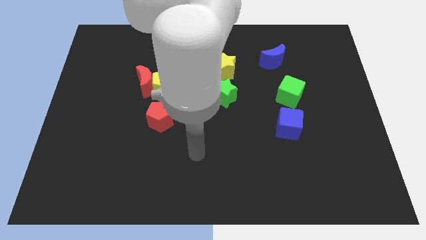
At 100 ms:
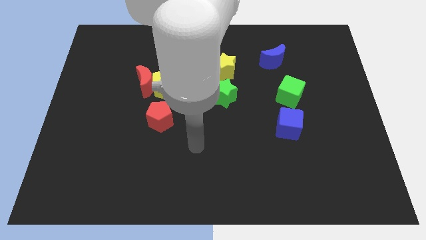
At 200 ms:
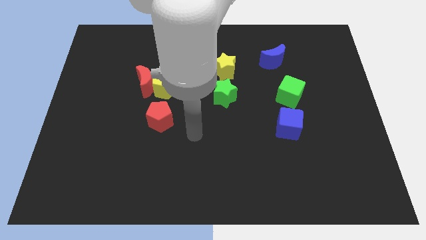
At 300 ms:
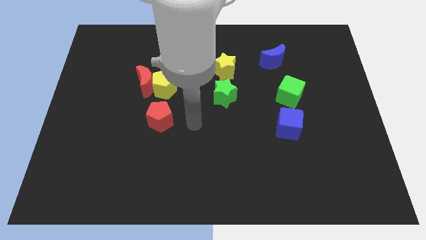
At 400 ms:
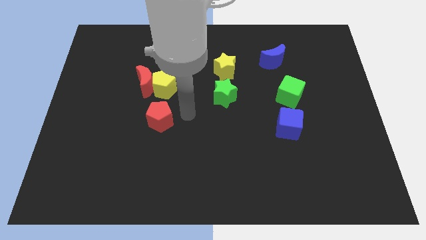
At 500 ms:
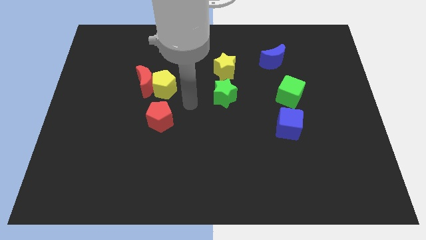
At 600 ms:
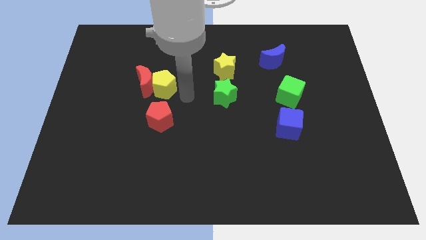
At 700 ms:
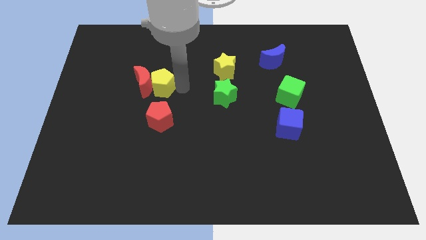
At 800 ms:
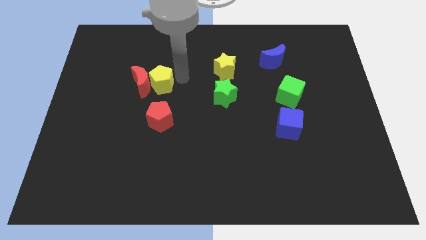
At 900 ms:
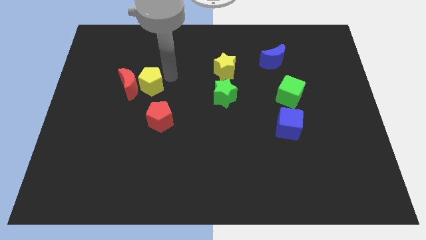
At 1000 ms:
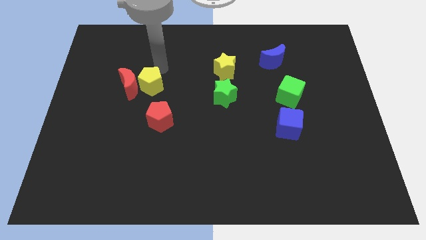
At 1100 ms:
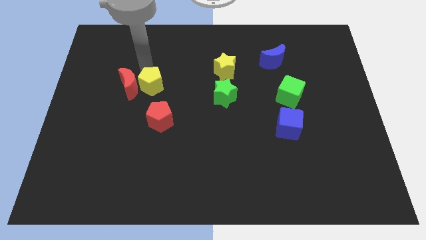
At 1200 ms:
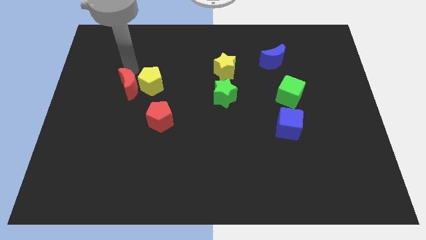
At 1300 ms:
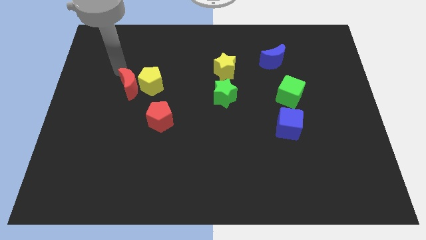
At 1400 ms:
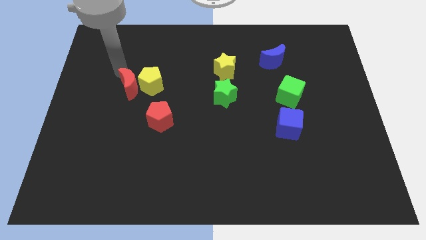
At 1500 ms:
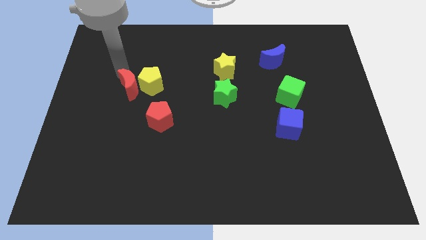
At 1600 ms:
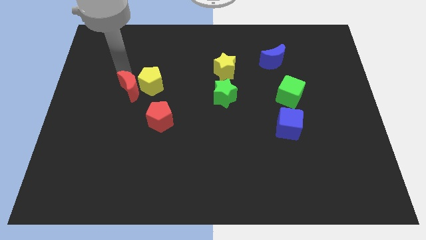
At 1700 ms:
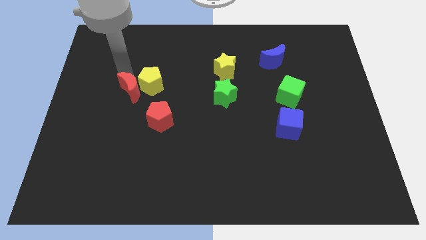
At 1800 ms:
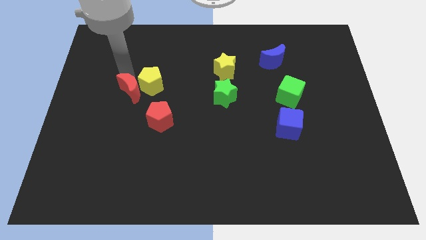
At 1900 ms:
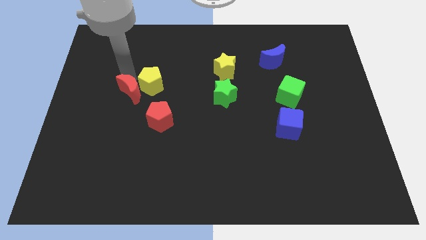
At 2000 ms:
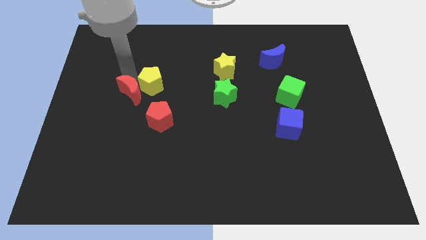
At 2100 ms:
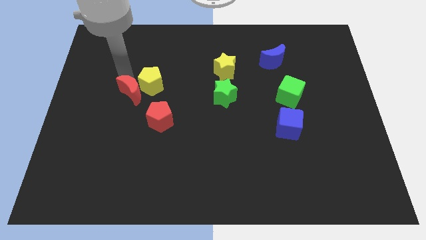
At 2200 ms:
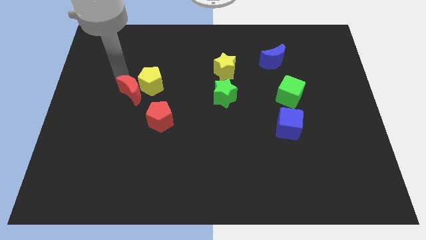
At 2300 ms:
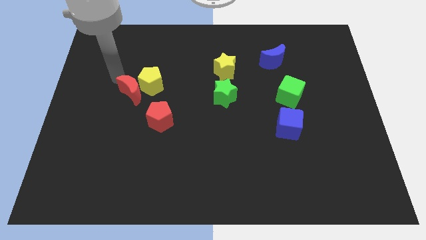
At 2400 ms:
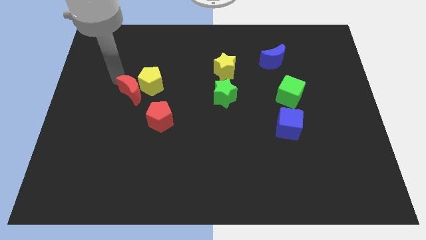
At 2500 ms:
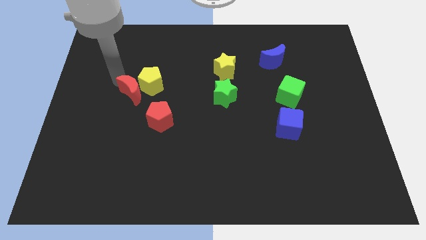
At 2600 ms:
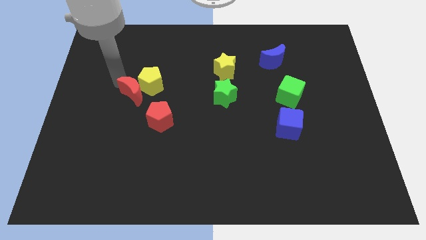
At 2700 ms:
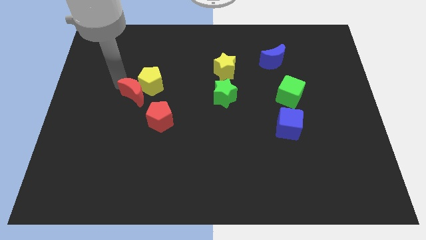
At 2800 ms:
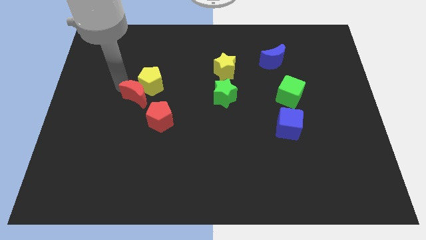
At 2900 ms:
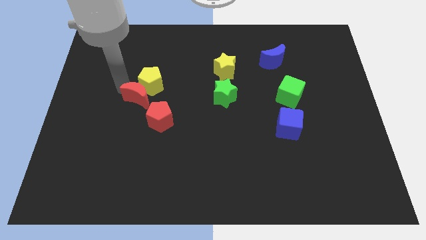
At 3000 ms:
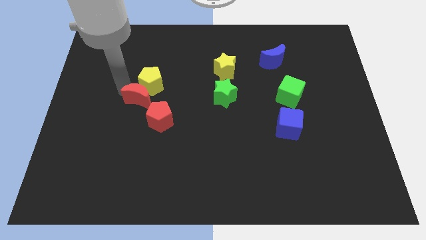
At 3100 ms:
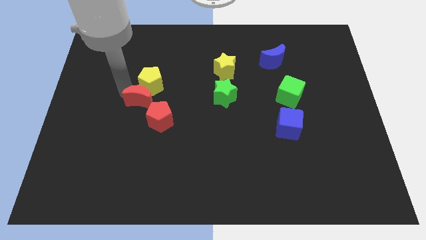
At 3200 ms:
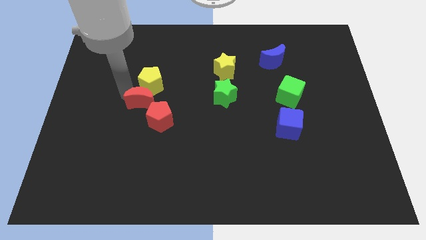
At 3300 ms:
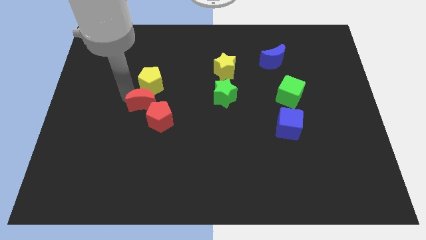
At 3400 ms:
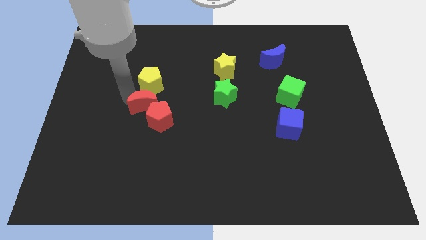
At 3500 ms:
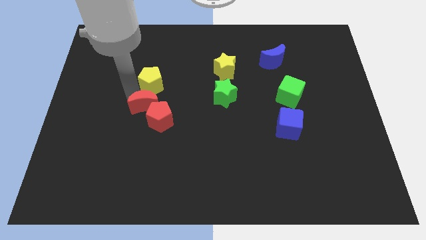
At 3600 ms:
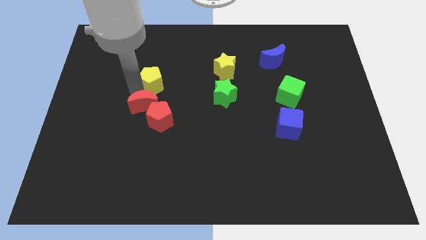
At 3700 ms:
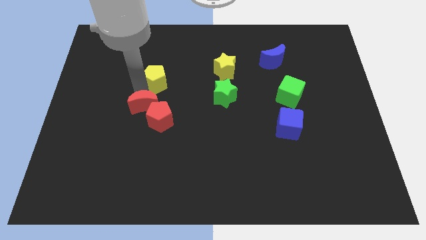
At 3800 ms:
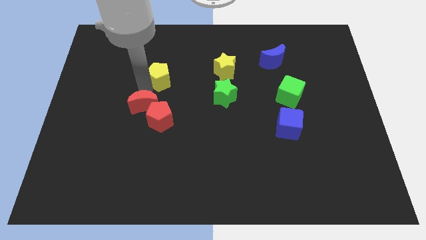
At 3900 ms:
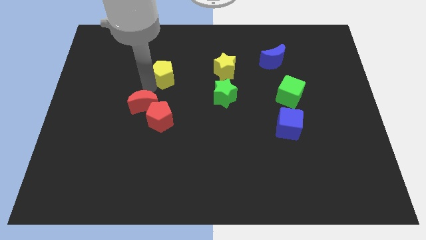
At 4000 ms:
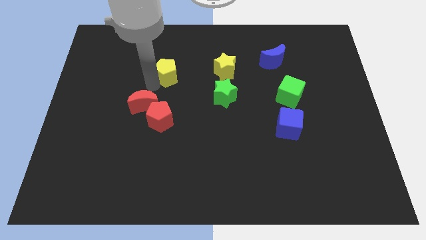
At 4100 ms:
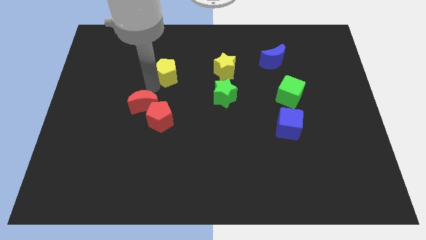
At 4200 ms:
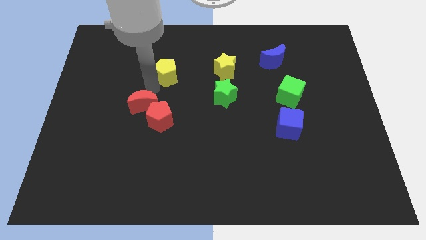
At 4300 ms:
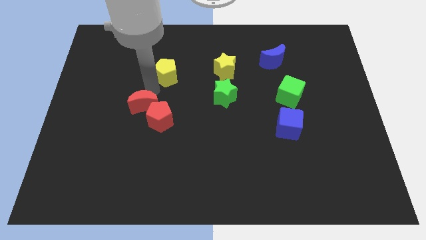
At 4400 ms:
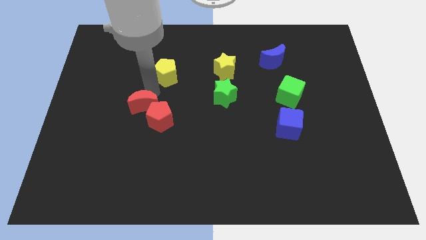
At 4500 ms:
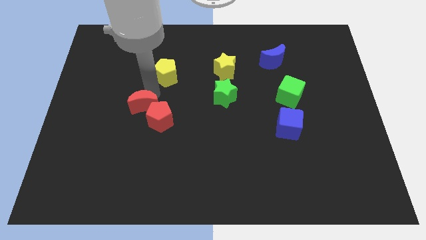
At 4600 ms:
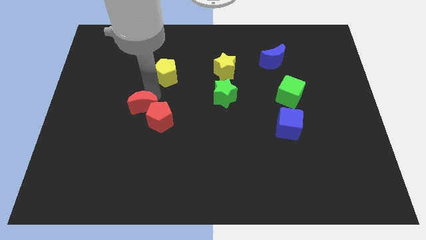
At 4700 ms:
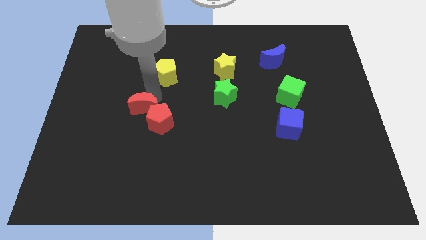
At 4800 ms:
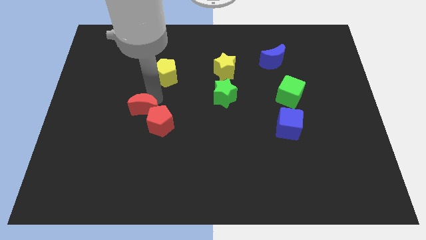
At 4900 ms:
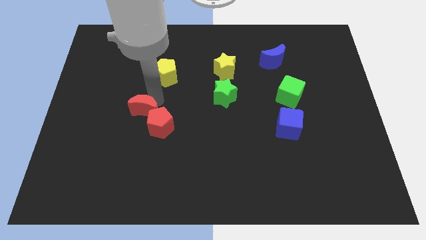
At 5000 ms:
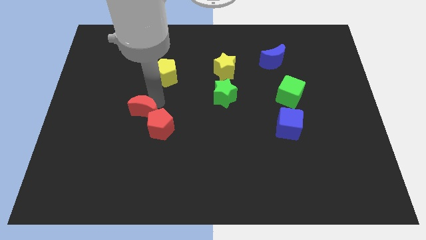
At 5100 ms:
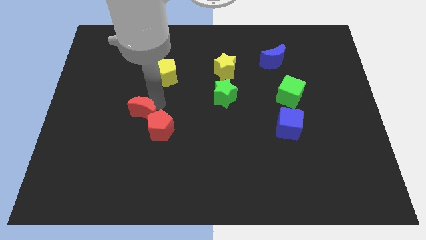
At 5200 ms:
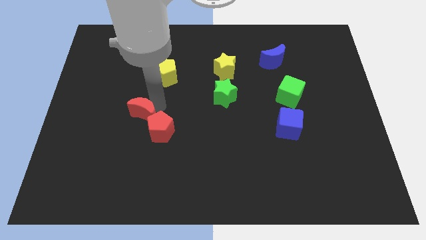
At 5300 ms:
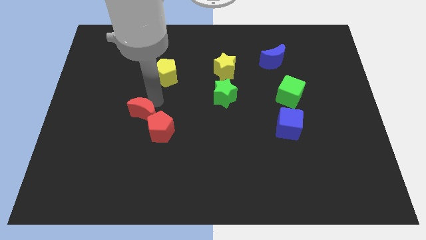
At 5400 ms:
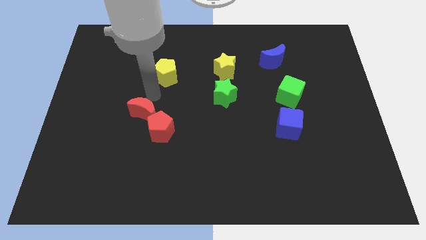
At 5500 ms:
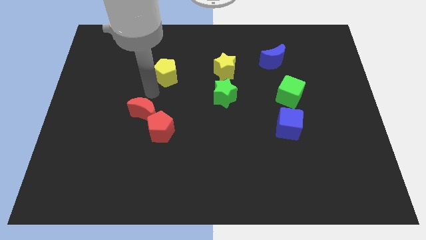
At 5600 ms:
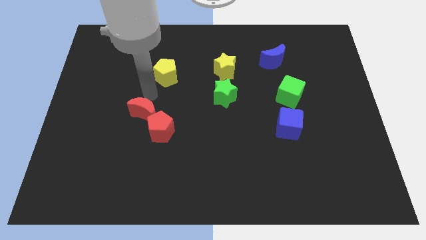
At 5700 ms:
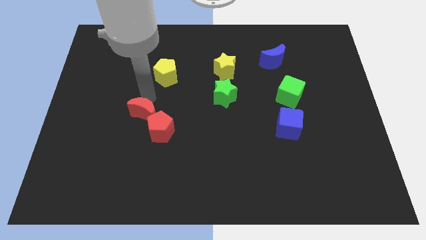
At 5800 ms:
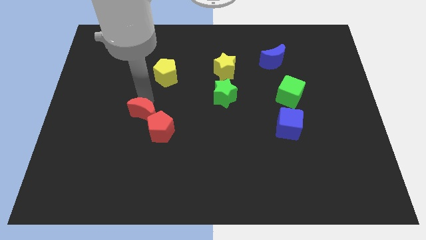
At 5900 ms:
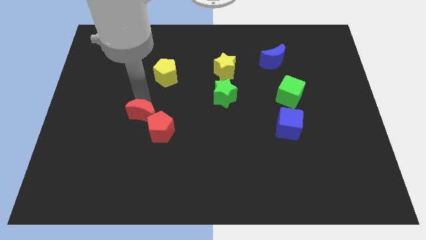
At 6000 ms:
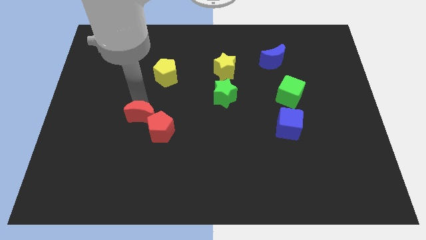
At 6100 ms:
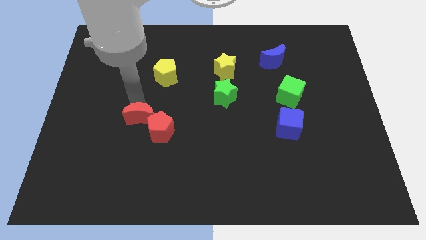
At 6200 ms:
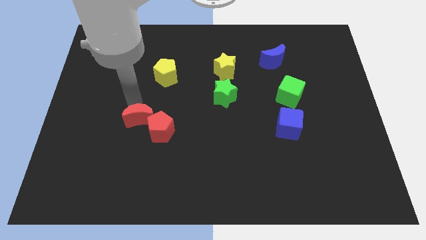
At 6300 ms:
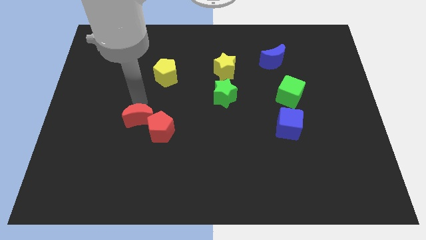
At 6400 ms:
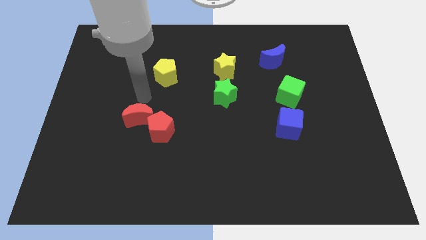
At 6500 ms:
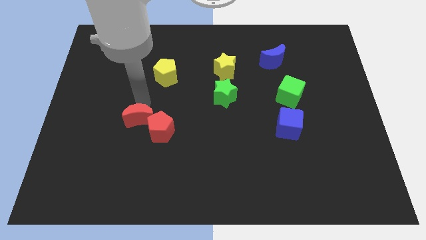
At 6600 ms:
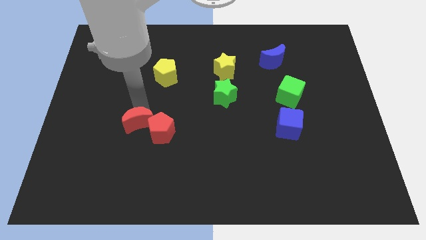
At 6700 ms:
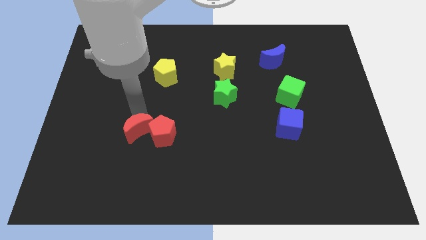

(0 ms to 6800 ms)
push the red moon to the bottom left side of the red pentagon

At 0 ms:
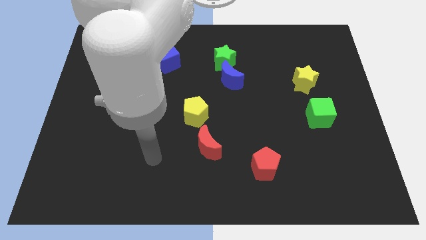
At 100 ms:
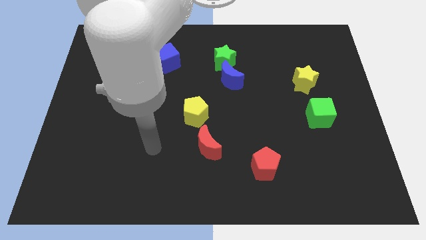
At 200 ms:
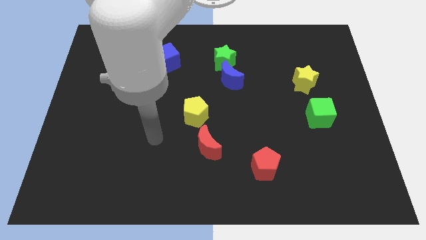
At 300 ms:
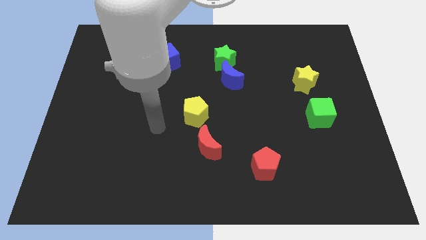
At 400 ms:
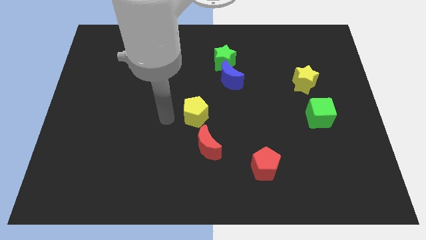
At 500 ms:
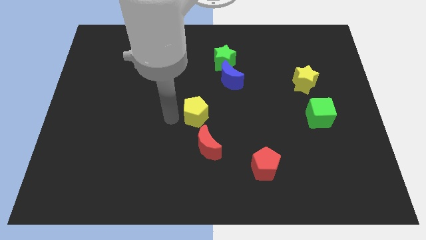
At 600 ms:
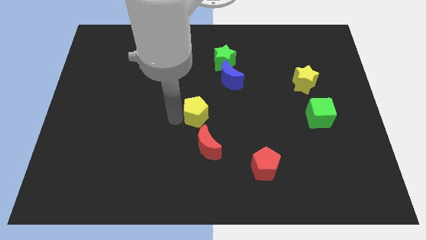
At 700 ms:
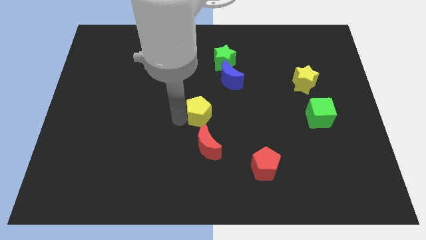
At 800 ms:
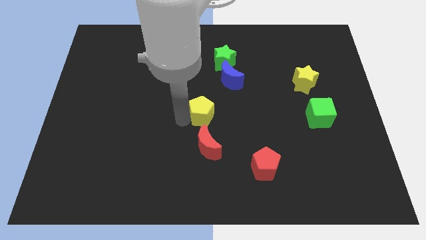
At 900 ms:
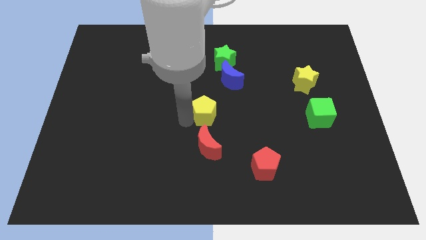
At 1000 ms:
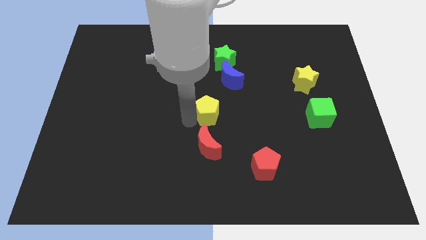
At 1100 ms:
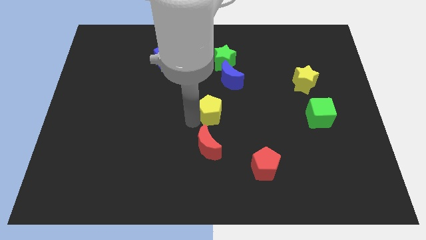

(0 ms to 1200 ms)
put the yellow pentagon to the bottom side of the blue moon
